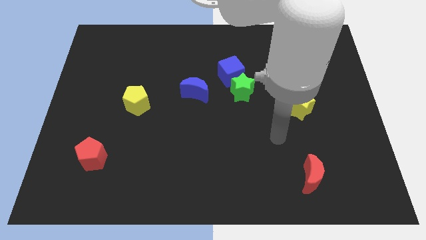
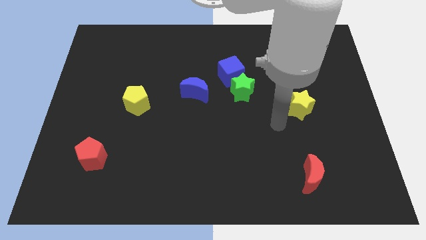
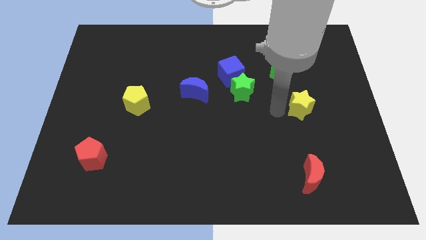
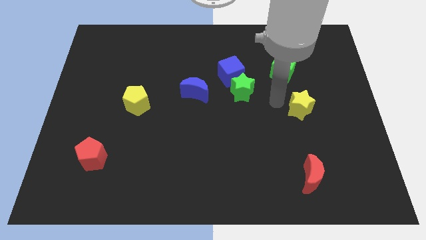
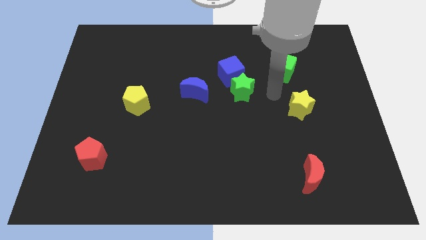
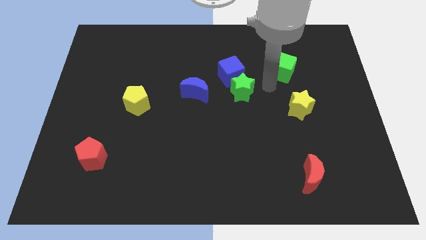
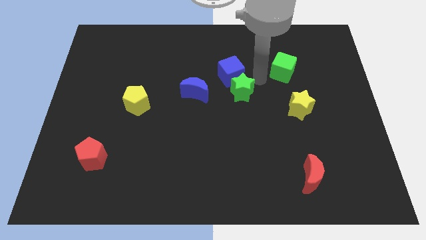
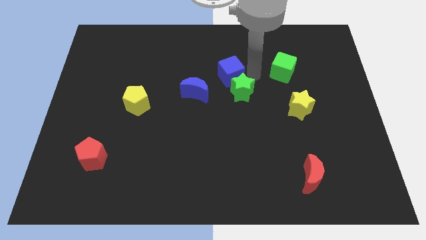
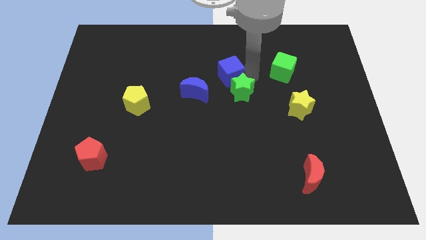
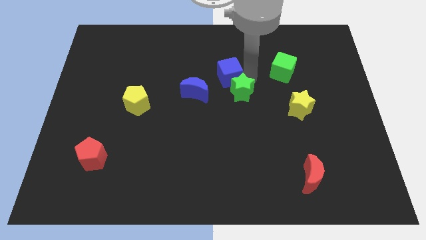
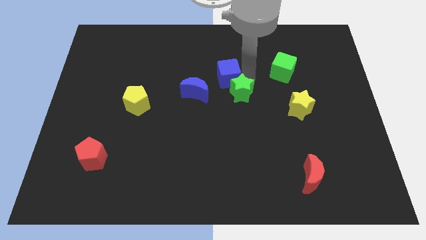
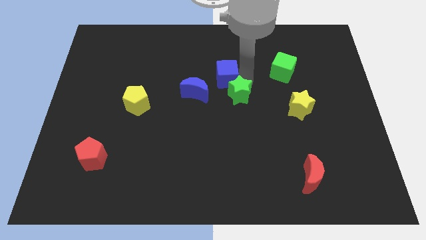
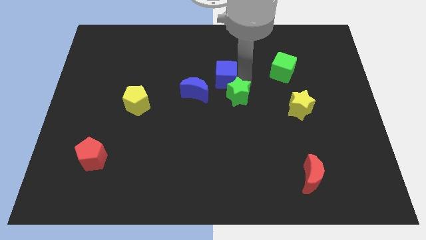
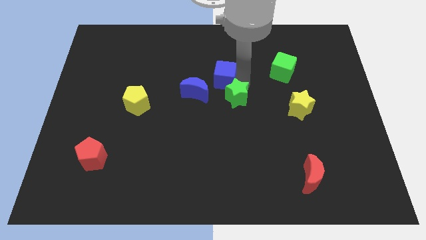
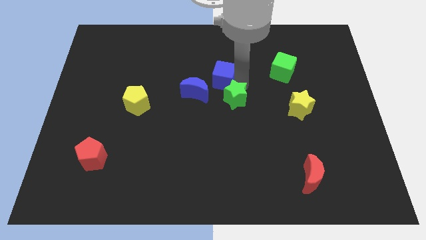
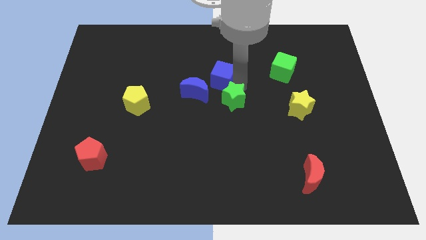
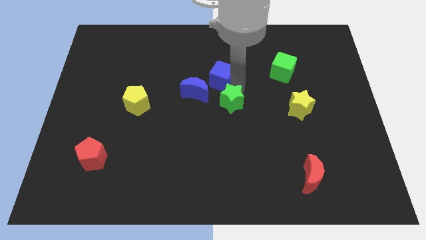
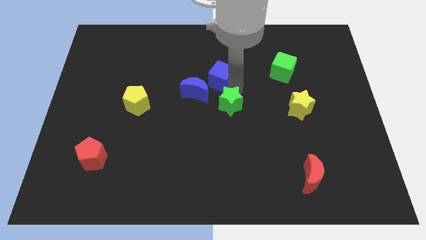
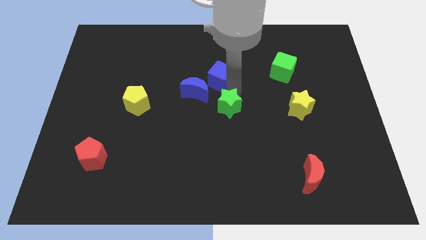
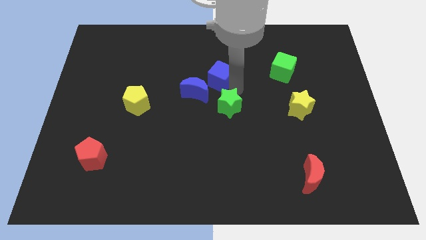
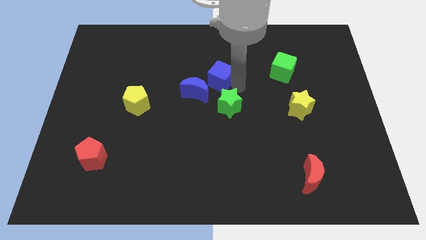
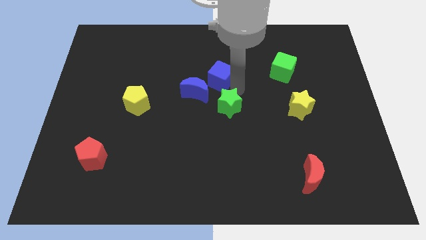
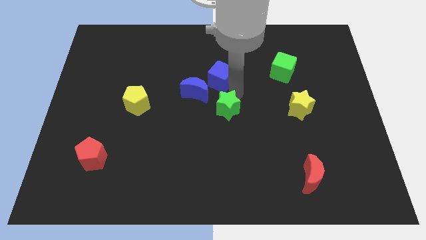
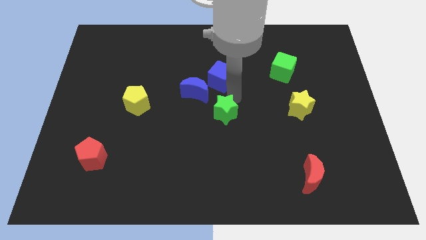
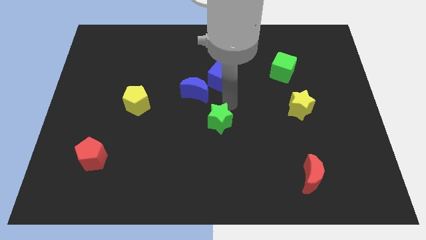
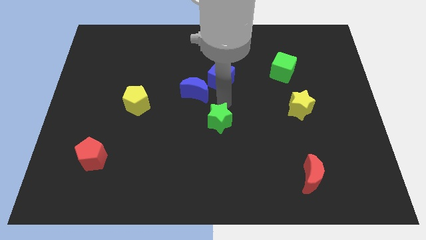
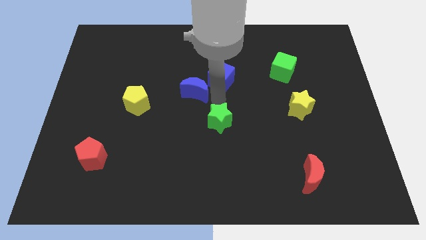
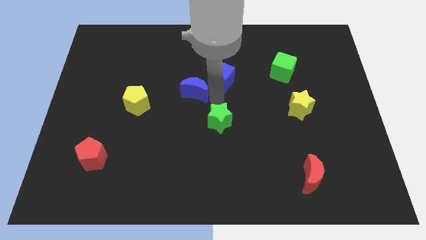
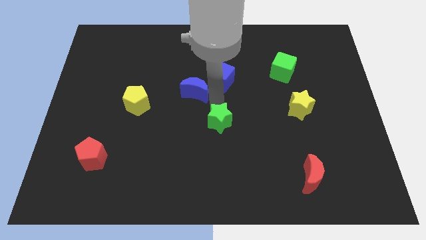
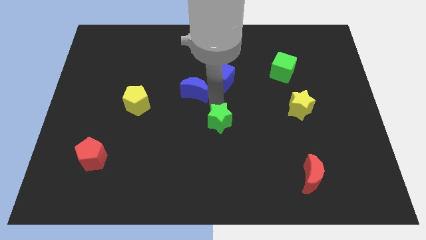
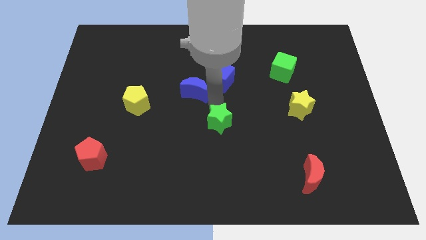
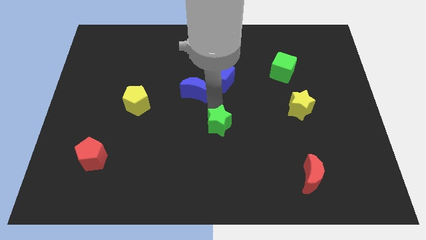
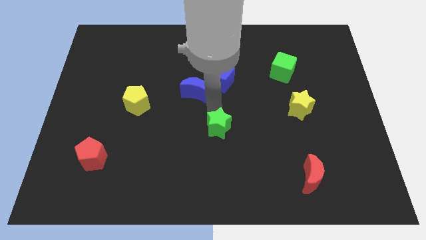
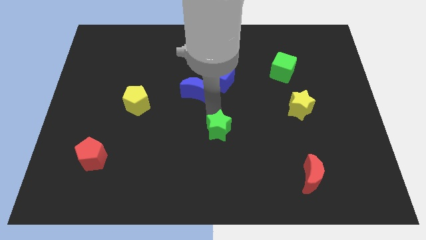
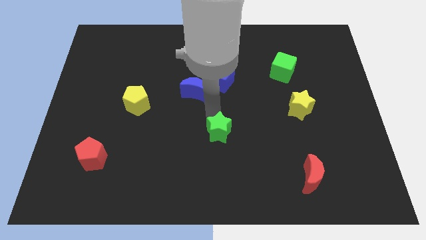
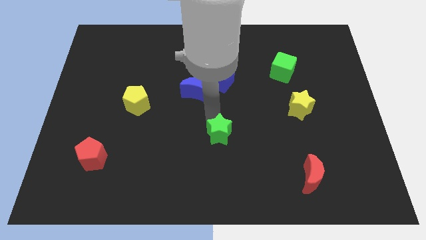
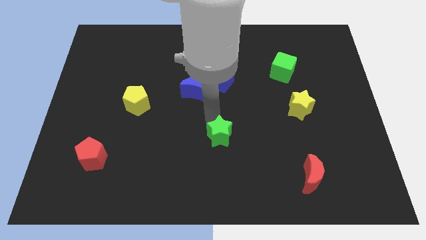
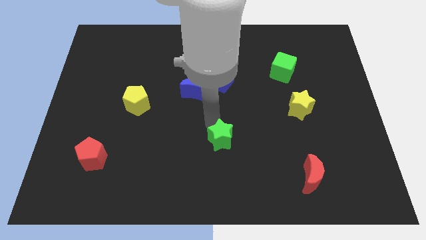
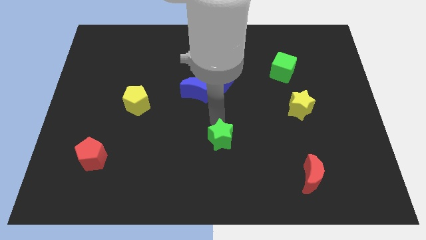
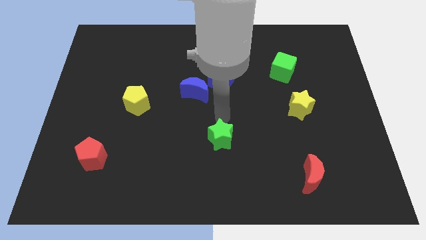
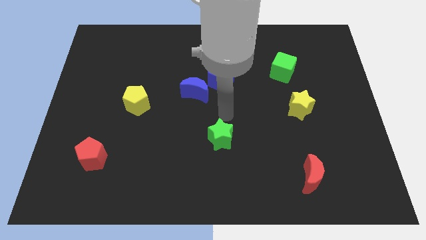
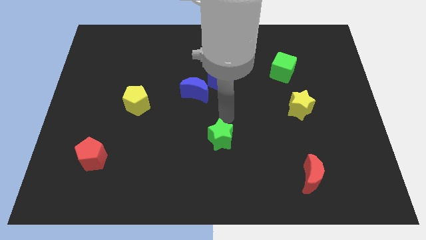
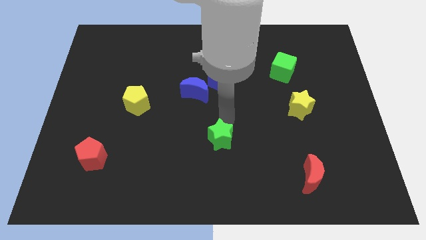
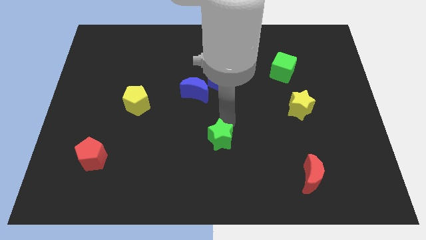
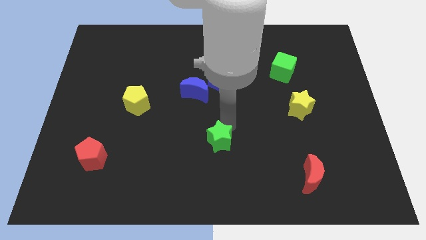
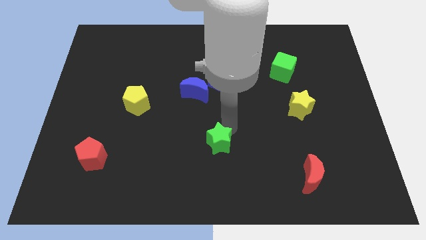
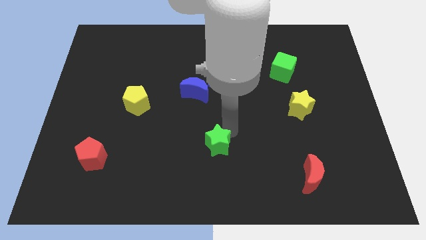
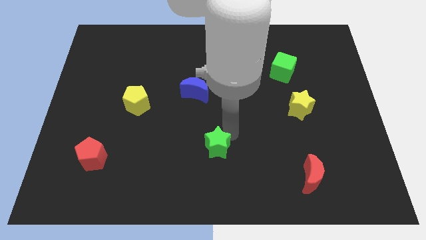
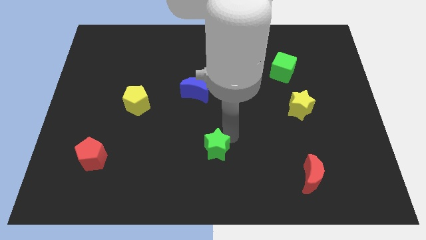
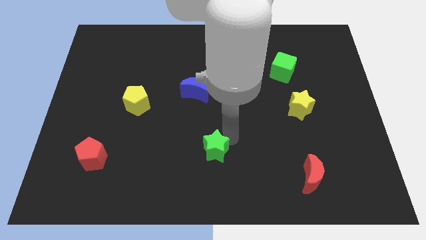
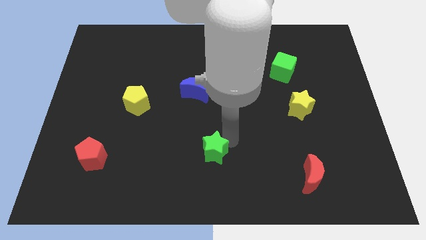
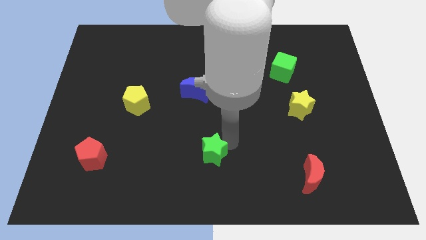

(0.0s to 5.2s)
move the green star to the bottom side

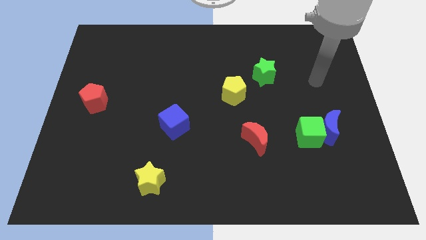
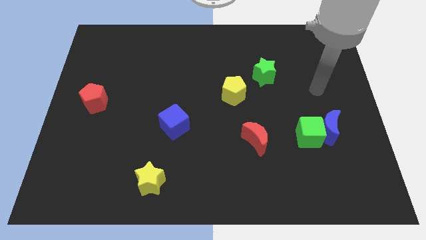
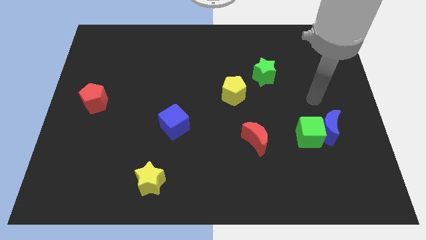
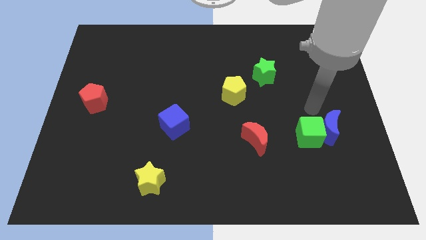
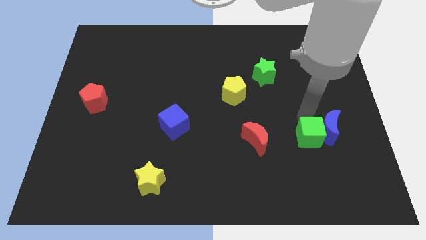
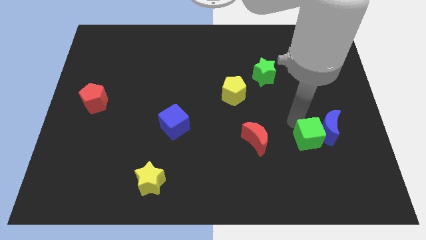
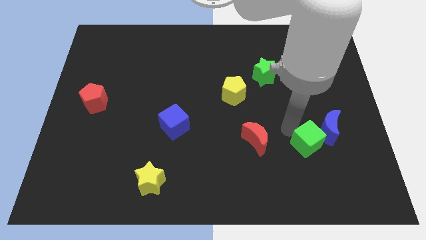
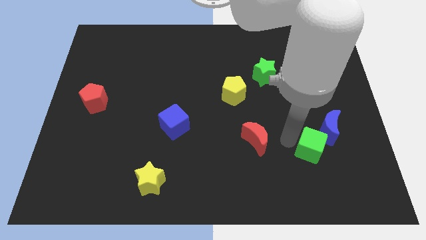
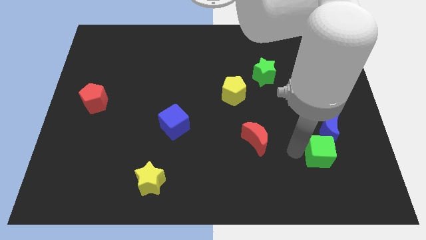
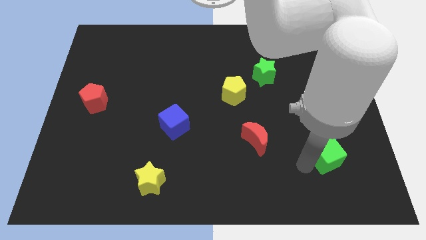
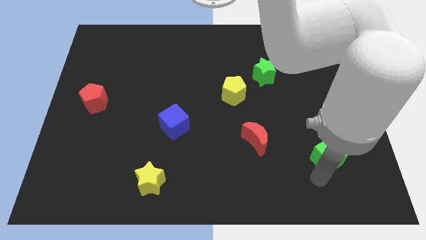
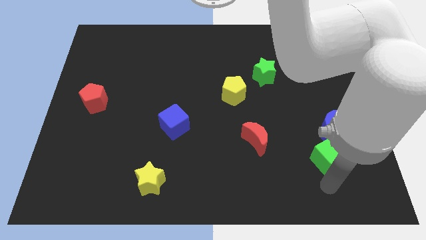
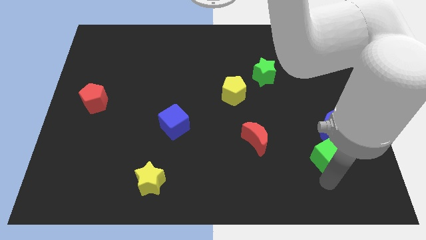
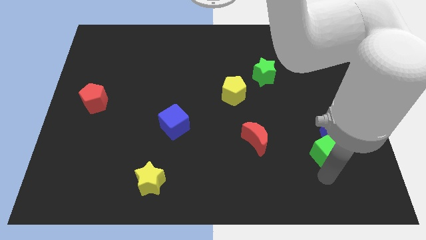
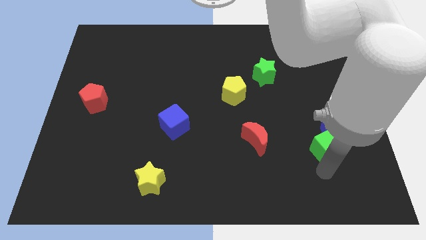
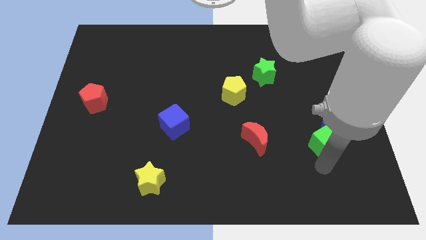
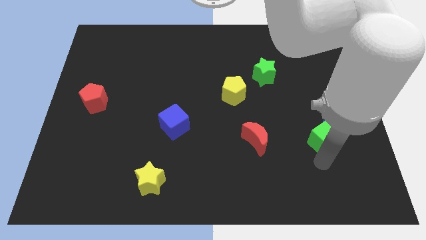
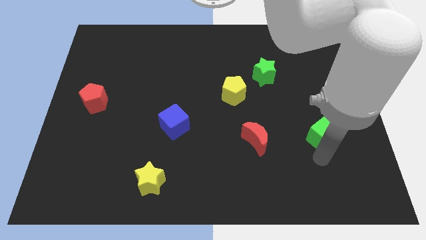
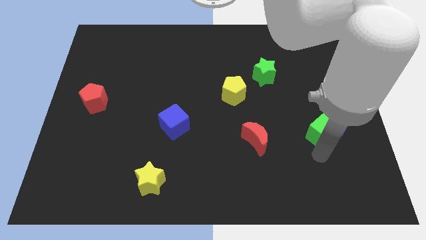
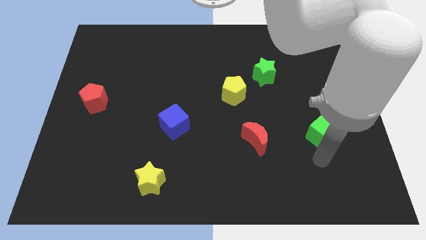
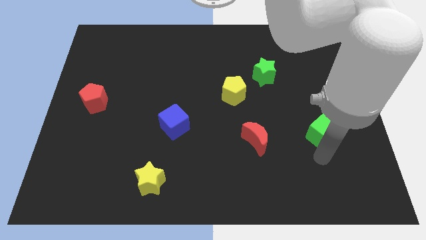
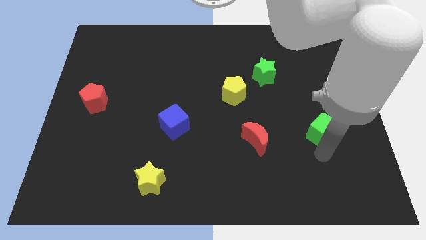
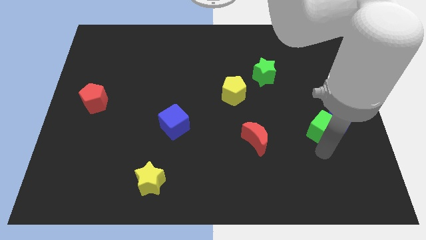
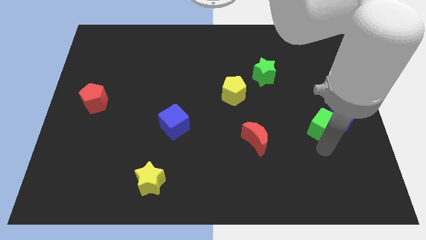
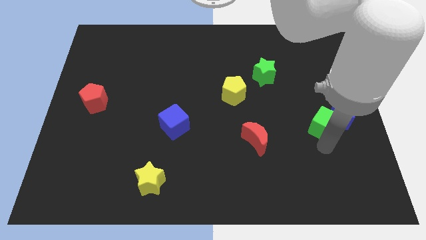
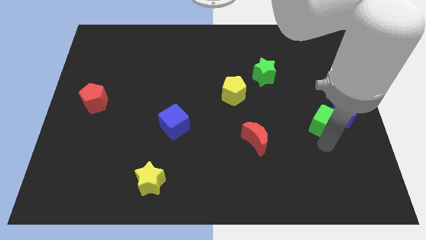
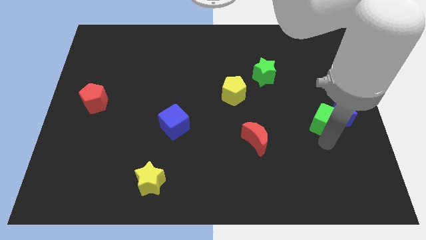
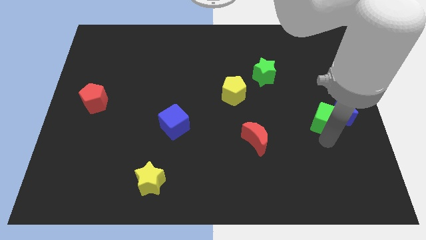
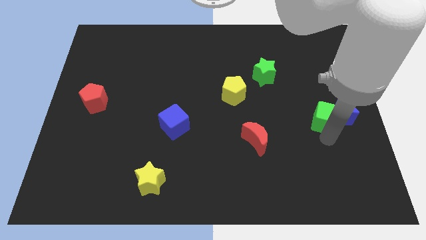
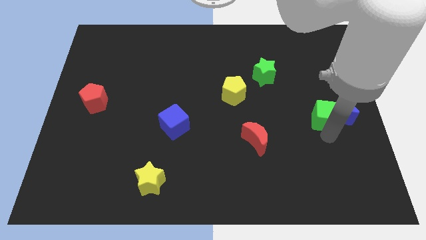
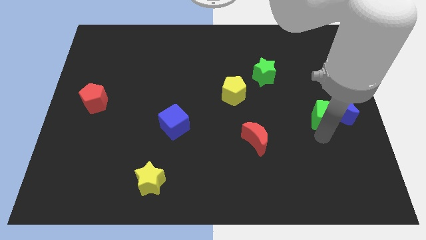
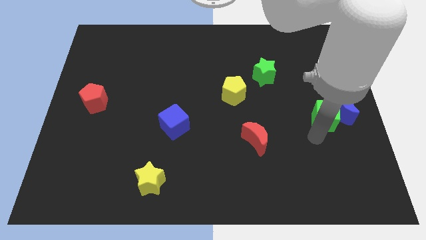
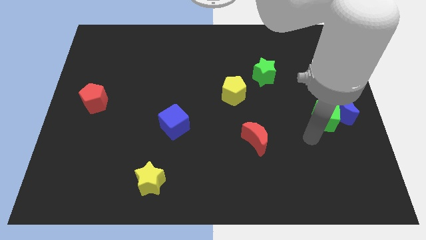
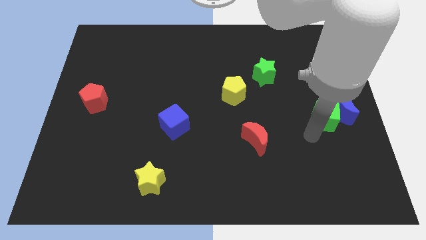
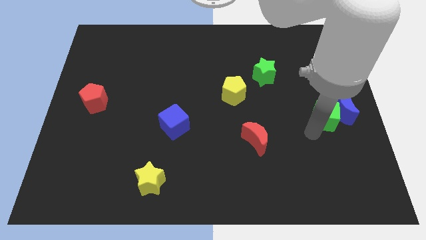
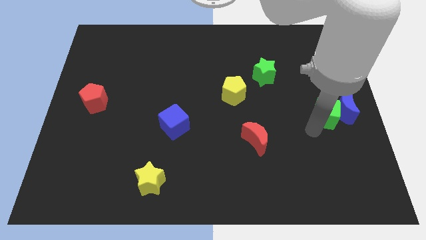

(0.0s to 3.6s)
push the green cube to the right side
